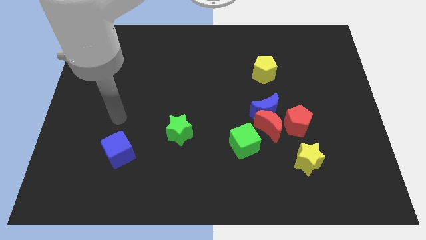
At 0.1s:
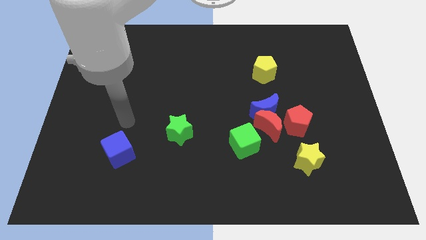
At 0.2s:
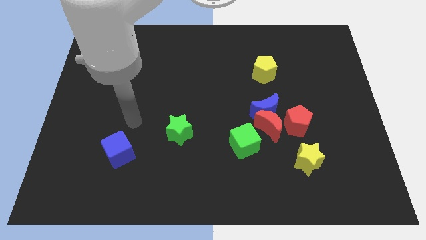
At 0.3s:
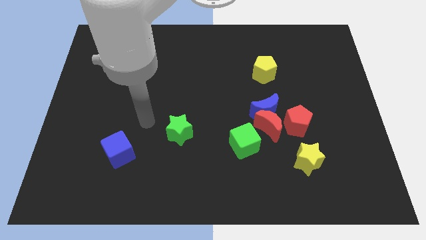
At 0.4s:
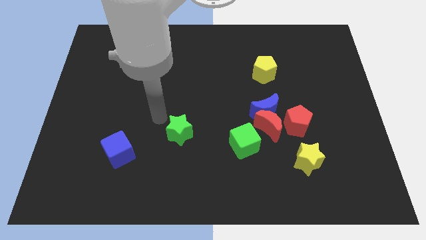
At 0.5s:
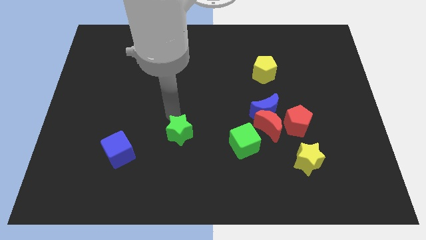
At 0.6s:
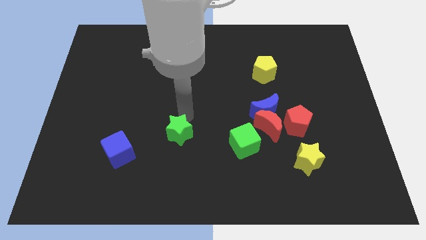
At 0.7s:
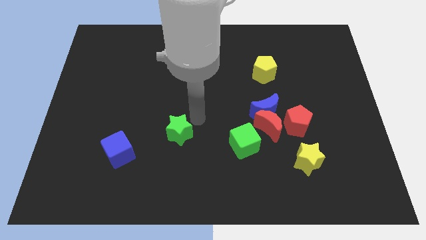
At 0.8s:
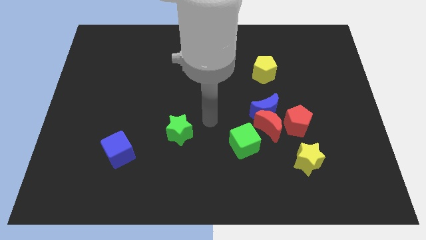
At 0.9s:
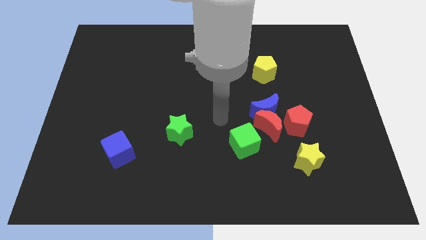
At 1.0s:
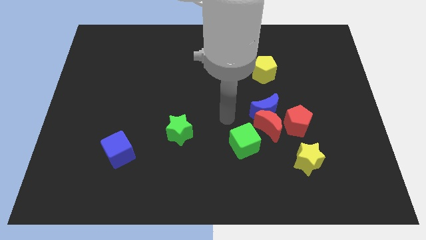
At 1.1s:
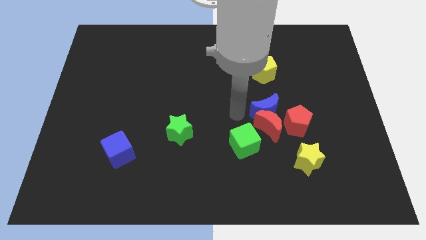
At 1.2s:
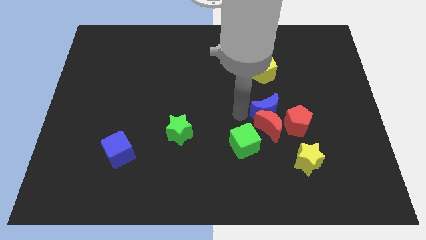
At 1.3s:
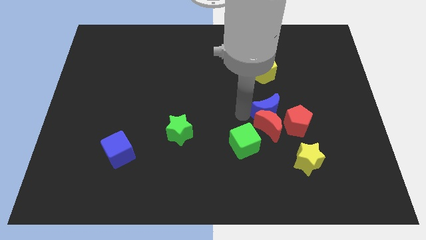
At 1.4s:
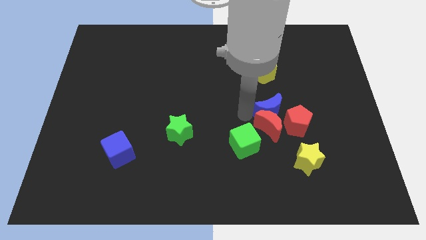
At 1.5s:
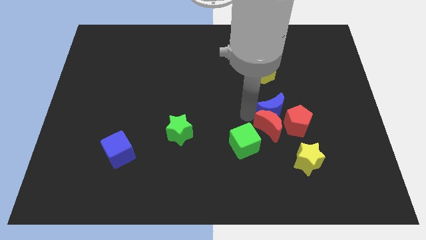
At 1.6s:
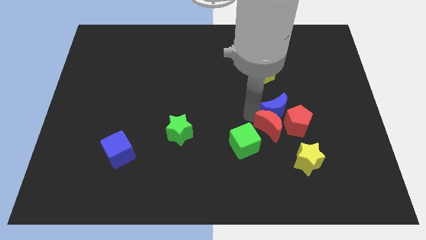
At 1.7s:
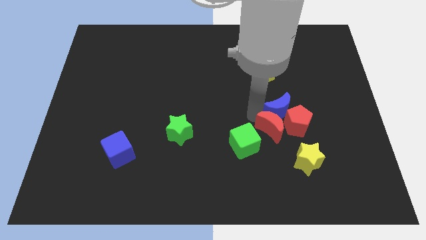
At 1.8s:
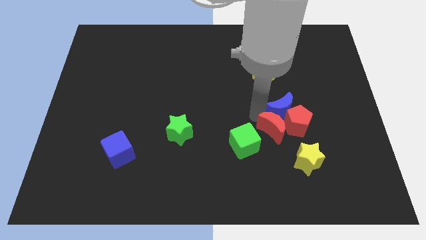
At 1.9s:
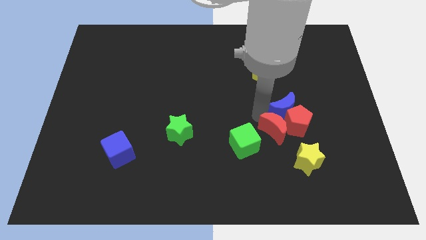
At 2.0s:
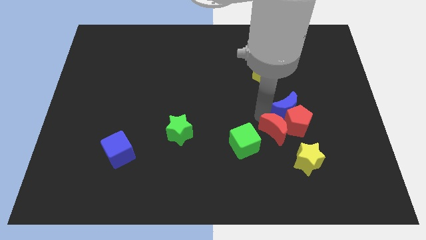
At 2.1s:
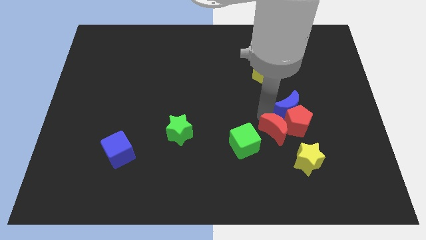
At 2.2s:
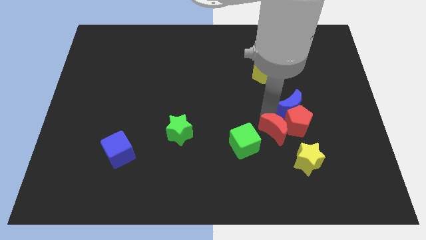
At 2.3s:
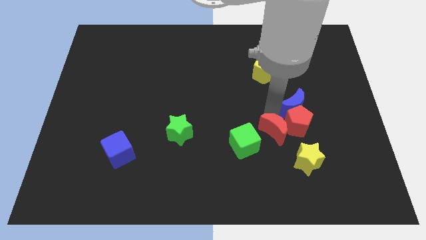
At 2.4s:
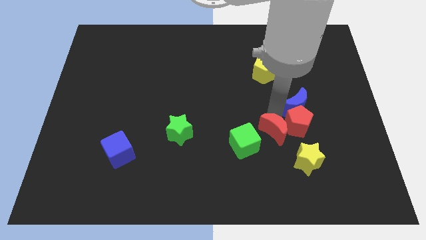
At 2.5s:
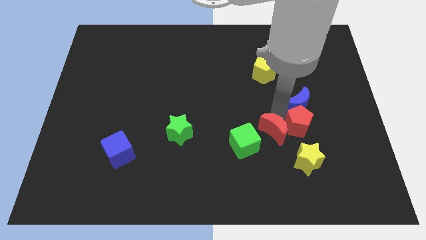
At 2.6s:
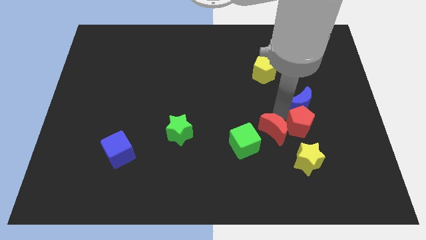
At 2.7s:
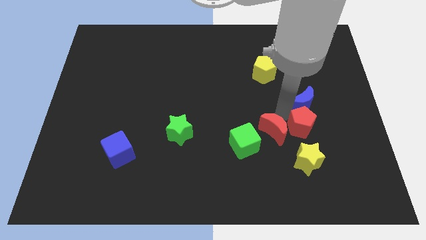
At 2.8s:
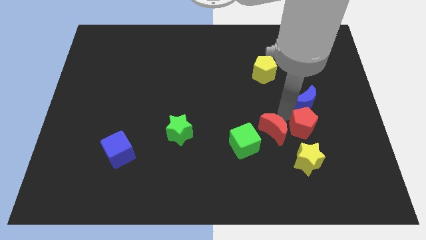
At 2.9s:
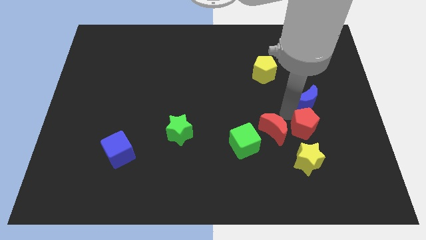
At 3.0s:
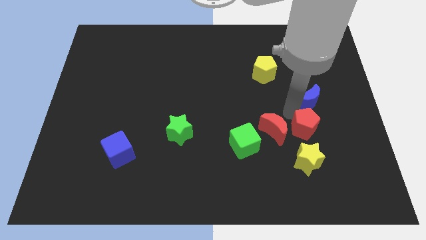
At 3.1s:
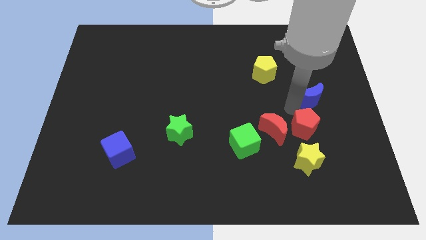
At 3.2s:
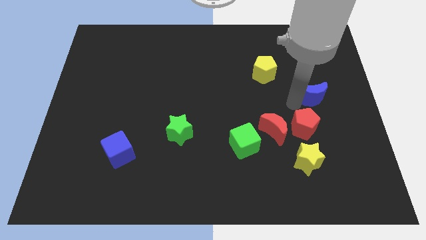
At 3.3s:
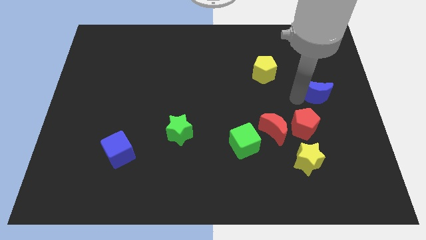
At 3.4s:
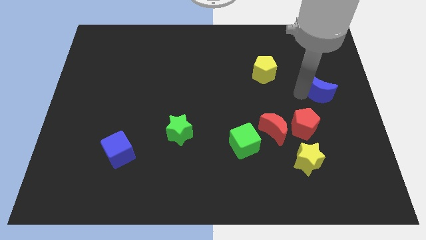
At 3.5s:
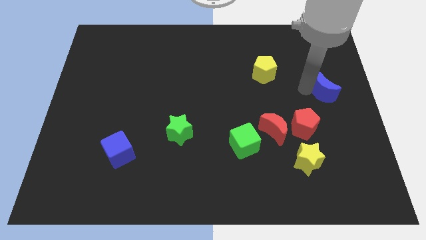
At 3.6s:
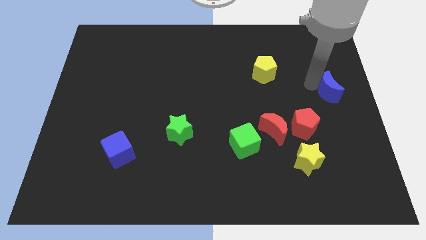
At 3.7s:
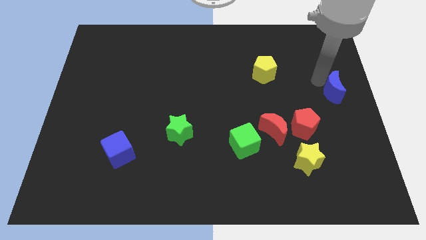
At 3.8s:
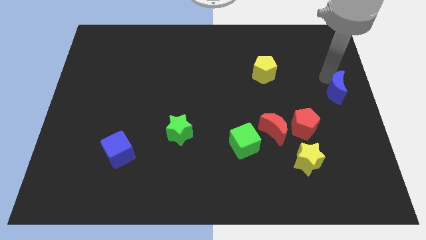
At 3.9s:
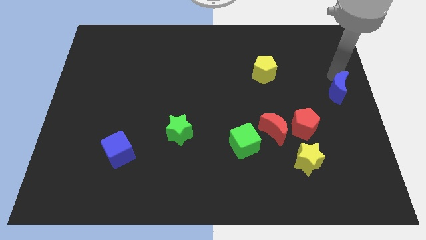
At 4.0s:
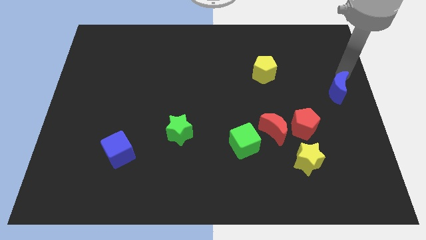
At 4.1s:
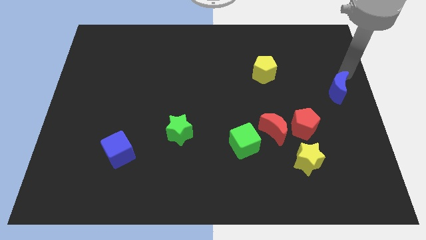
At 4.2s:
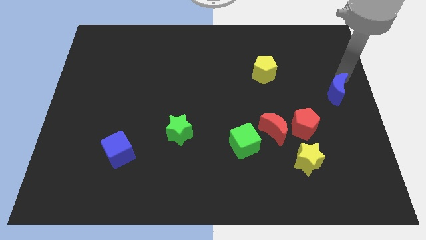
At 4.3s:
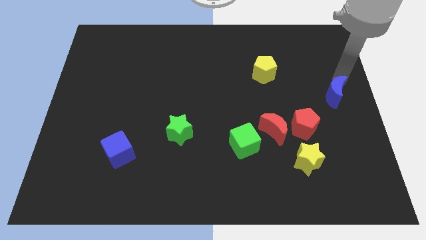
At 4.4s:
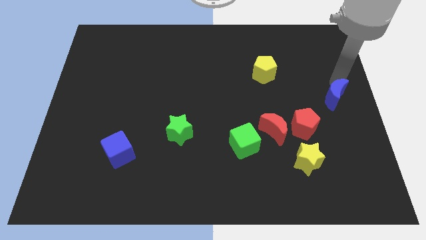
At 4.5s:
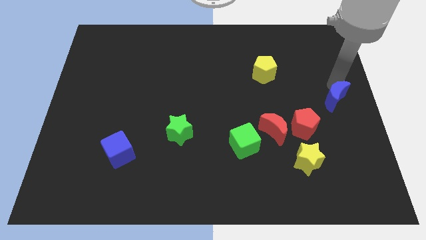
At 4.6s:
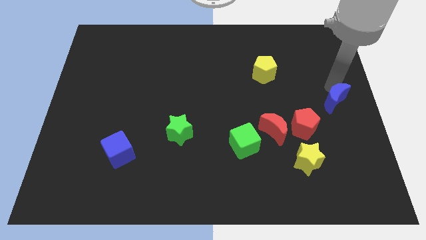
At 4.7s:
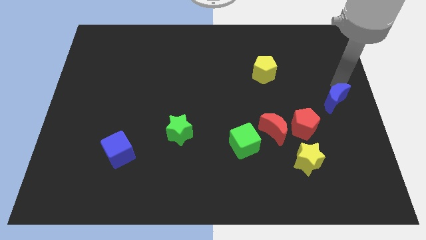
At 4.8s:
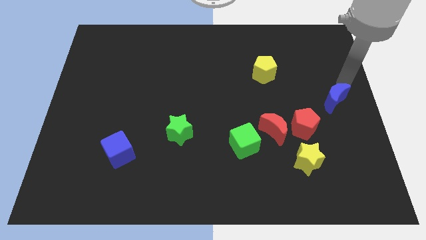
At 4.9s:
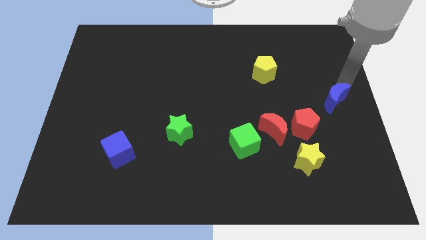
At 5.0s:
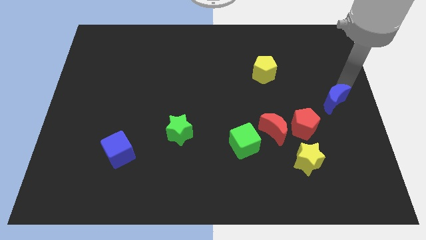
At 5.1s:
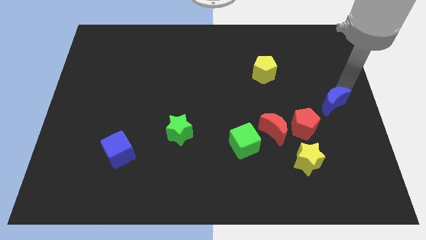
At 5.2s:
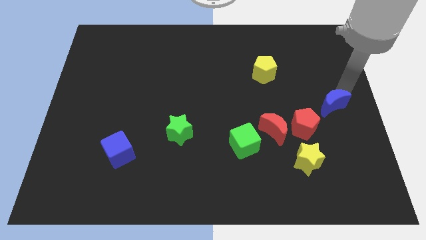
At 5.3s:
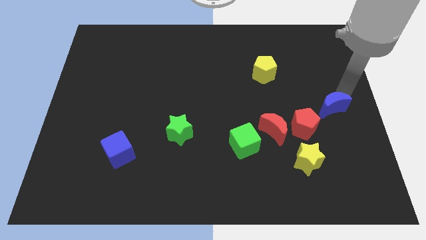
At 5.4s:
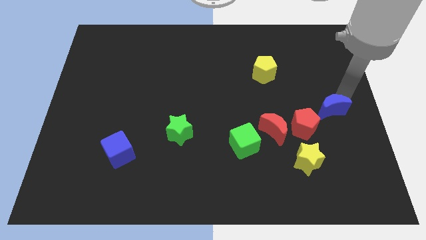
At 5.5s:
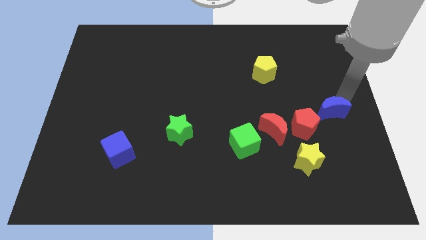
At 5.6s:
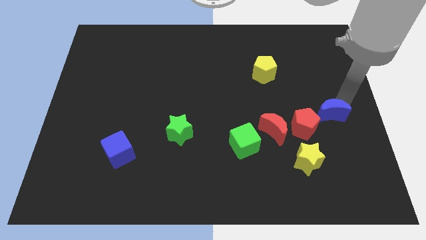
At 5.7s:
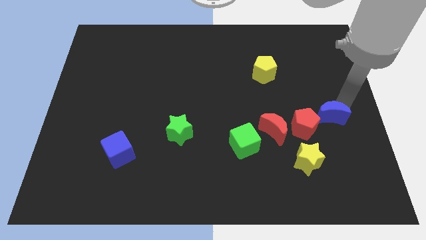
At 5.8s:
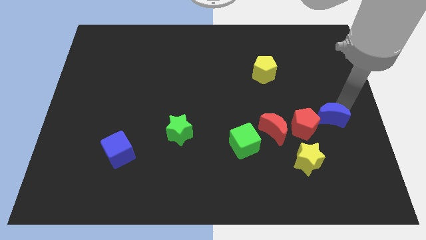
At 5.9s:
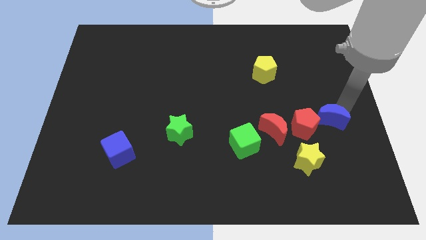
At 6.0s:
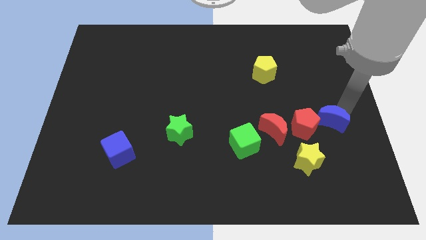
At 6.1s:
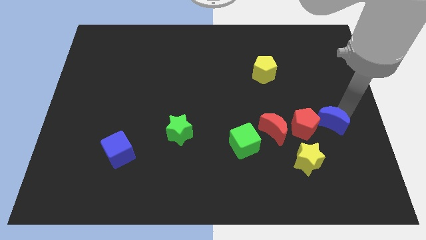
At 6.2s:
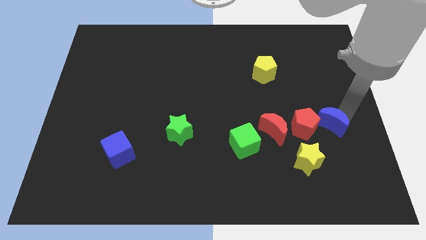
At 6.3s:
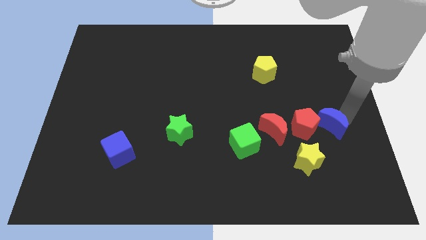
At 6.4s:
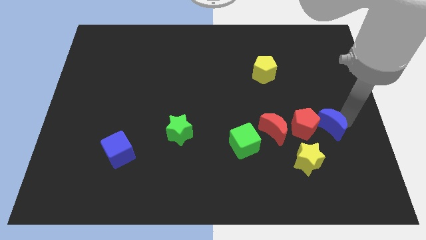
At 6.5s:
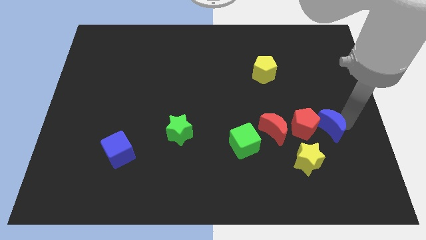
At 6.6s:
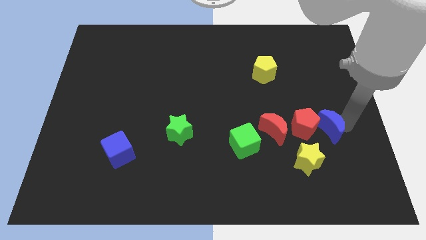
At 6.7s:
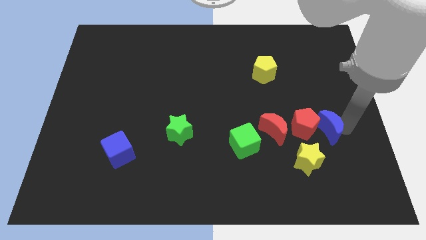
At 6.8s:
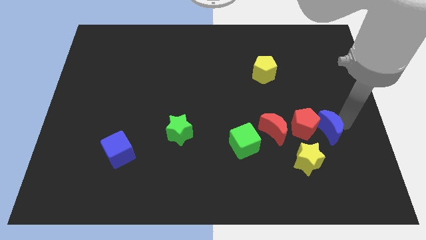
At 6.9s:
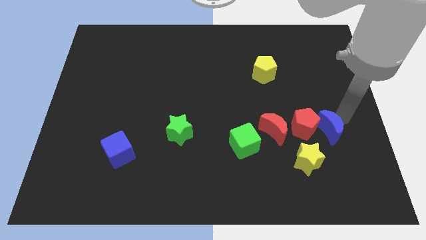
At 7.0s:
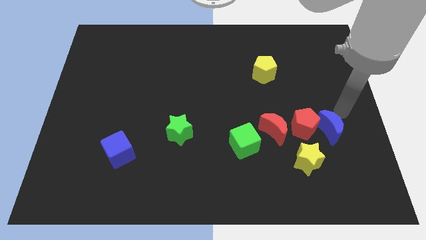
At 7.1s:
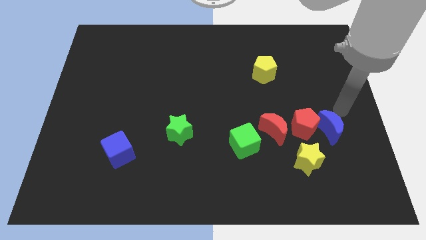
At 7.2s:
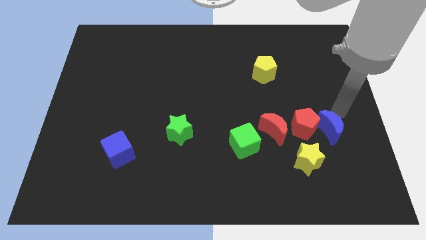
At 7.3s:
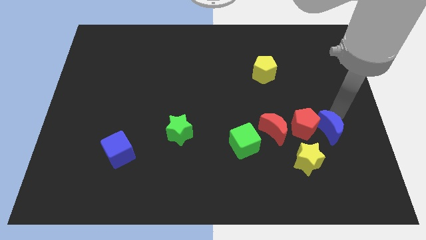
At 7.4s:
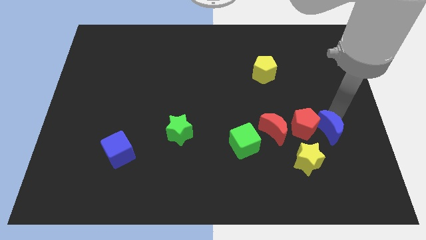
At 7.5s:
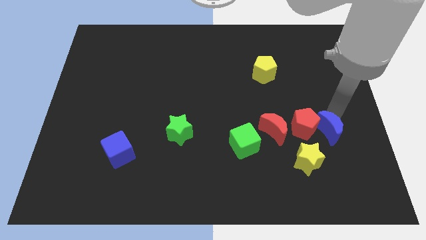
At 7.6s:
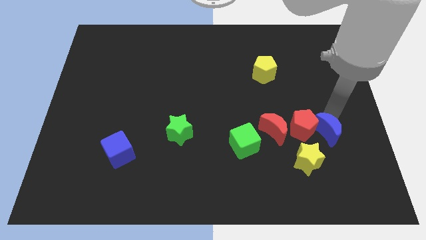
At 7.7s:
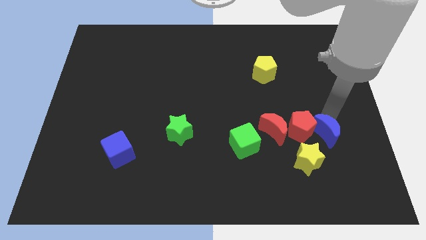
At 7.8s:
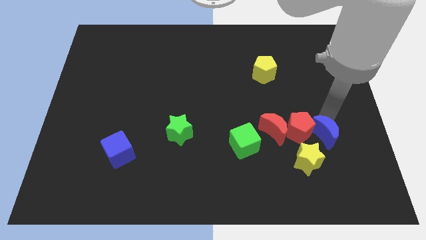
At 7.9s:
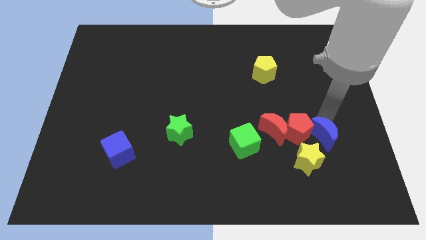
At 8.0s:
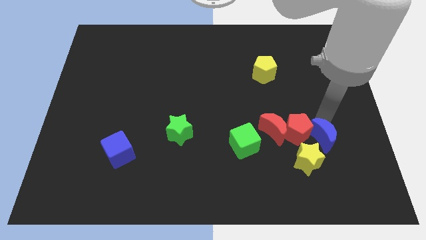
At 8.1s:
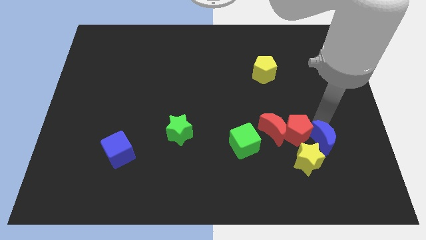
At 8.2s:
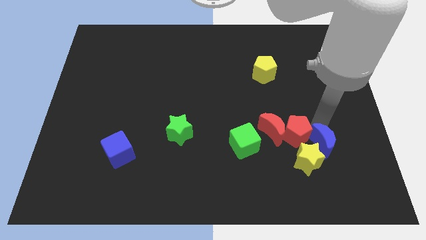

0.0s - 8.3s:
push the blue moon next to the yellow star
